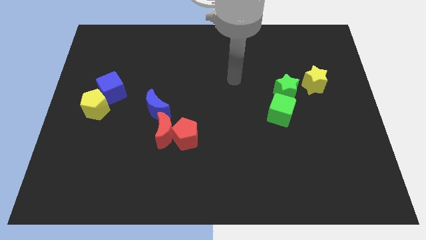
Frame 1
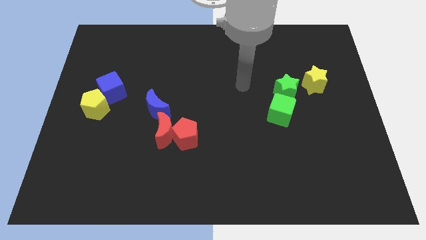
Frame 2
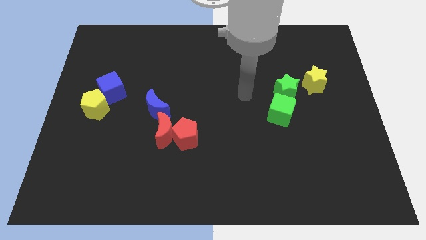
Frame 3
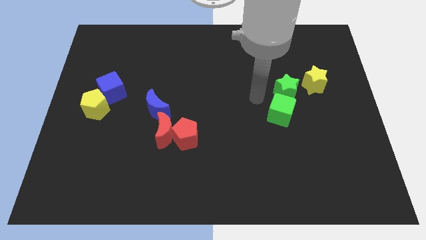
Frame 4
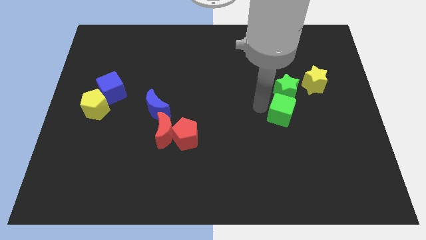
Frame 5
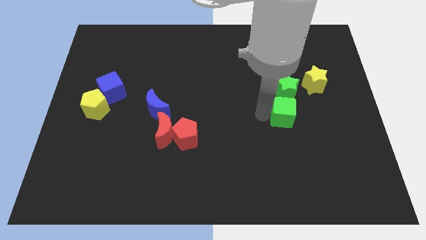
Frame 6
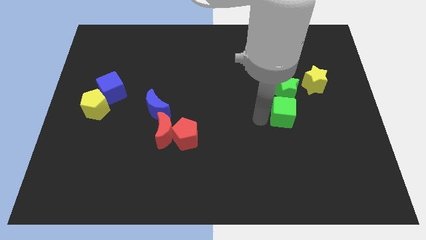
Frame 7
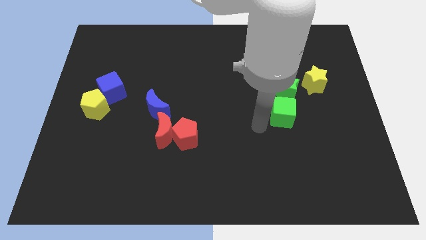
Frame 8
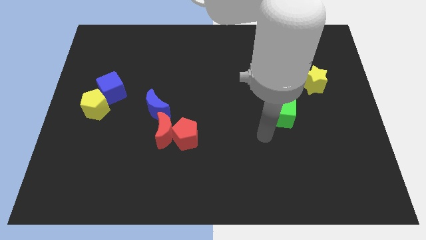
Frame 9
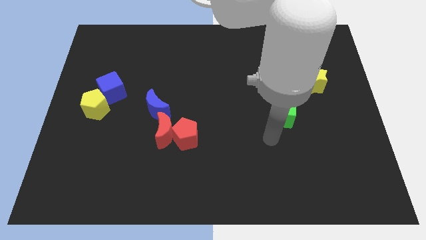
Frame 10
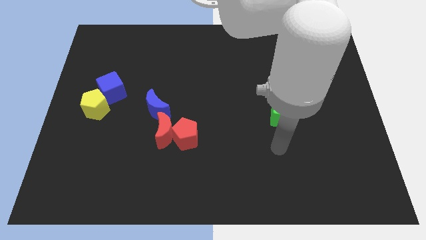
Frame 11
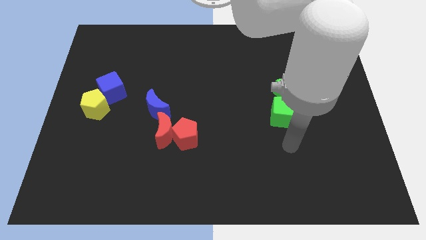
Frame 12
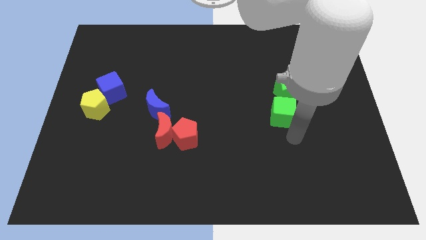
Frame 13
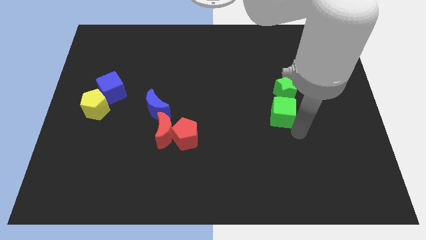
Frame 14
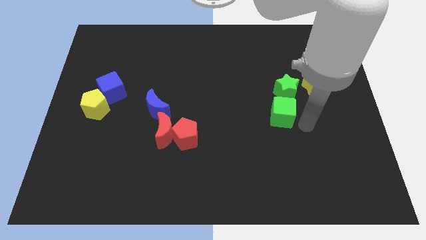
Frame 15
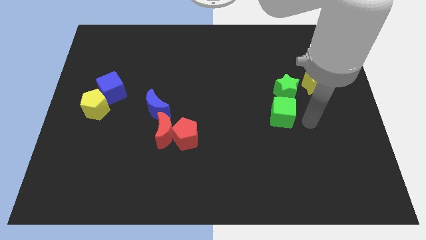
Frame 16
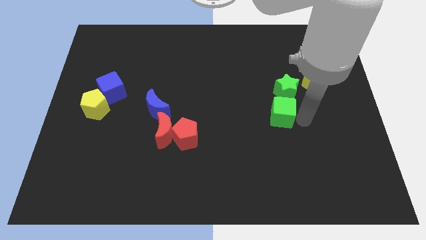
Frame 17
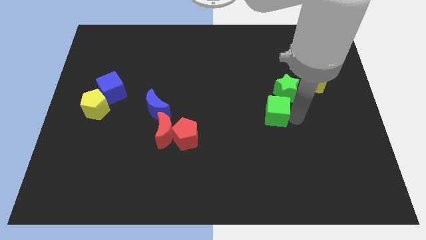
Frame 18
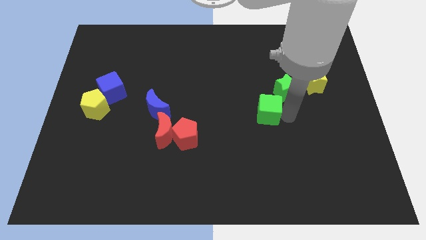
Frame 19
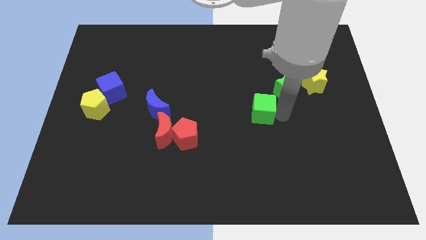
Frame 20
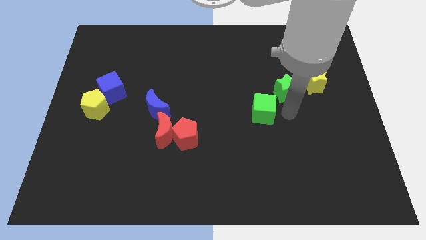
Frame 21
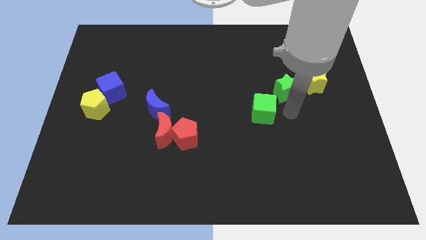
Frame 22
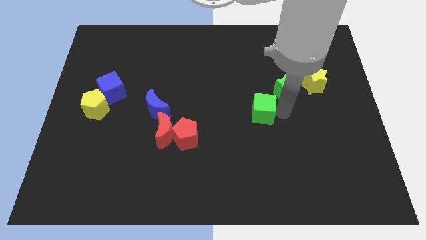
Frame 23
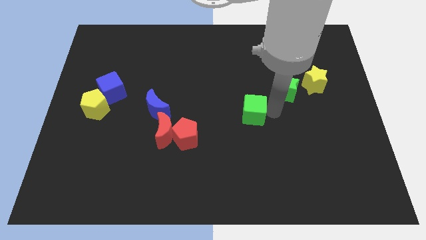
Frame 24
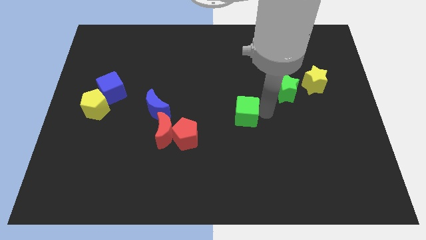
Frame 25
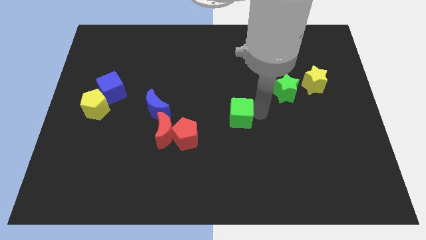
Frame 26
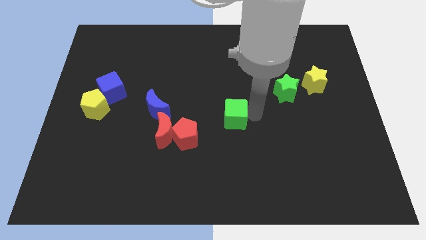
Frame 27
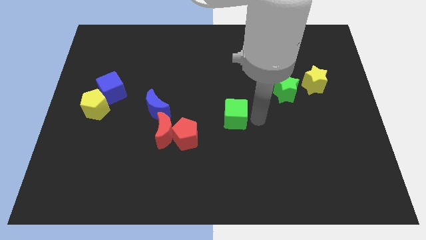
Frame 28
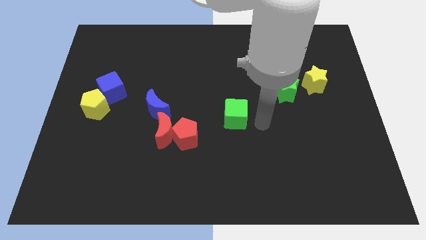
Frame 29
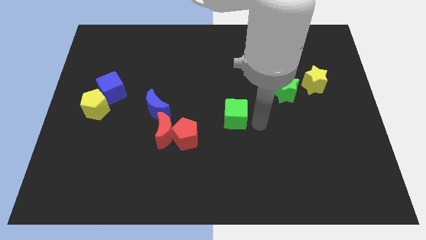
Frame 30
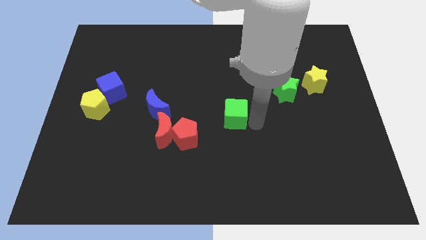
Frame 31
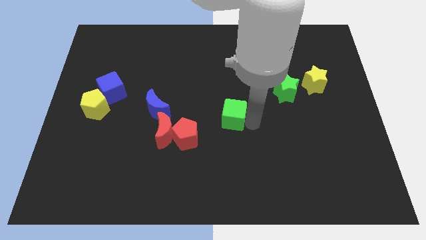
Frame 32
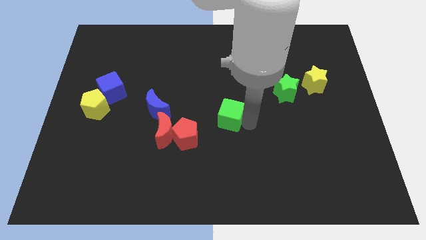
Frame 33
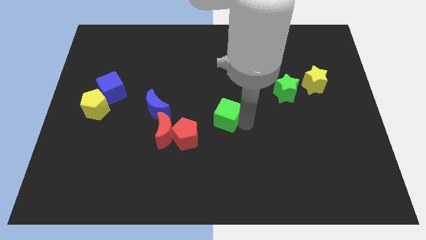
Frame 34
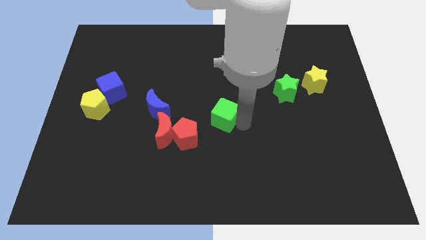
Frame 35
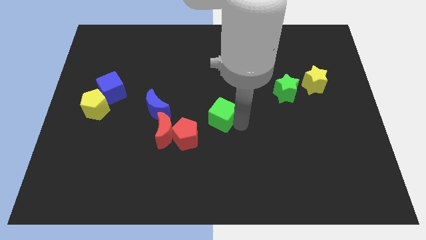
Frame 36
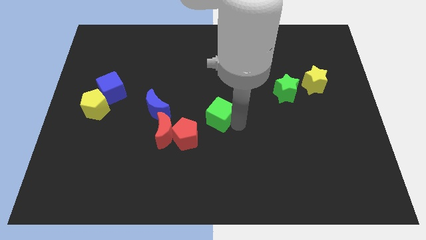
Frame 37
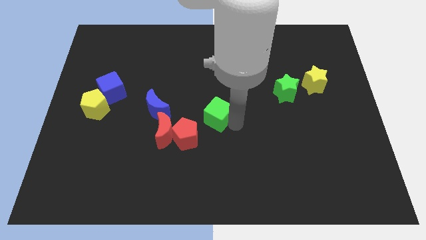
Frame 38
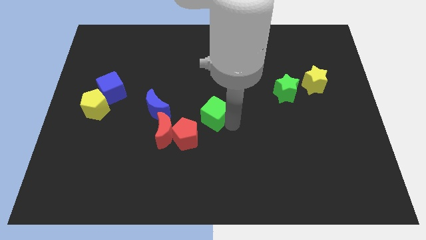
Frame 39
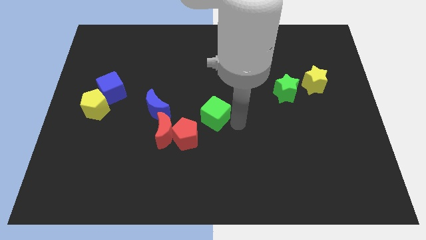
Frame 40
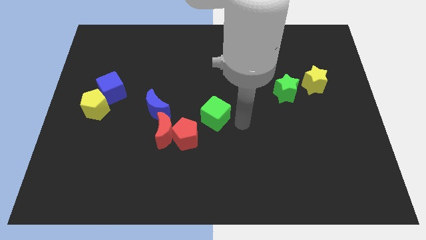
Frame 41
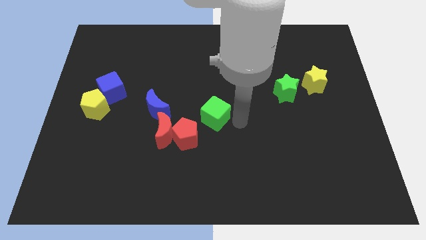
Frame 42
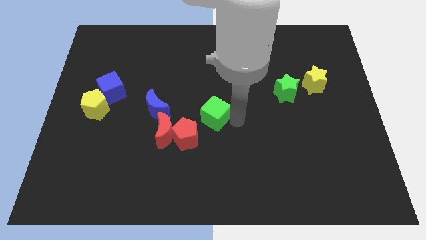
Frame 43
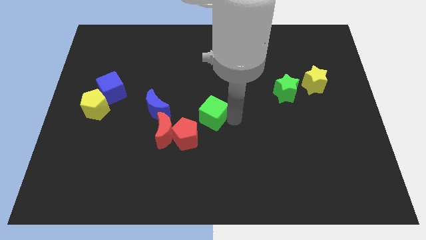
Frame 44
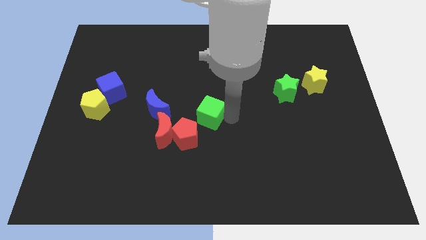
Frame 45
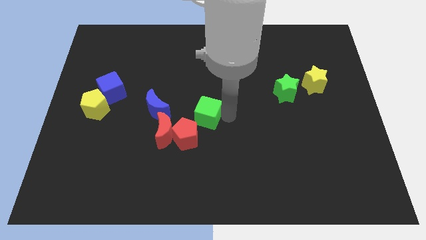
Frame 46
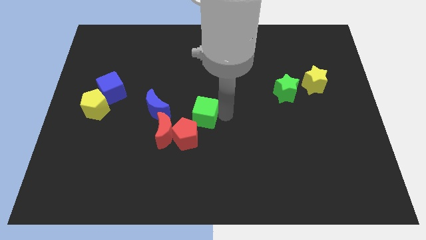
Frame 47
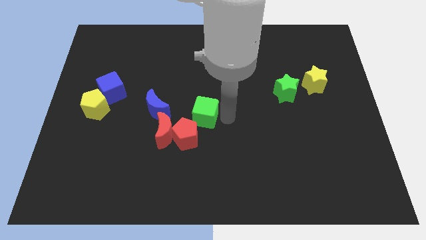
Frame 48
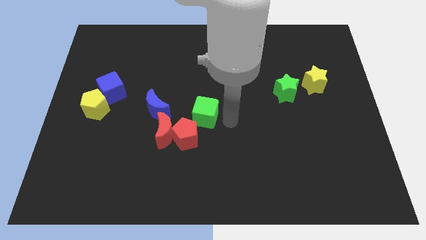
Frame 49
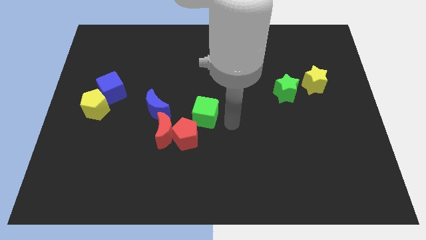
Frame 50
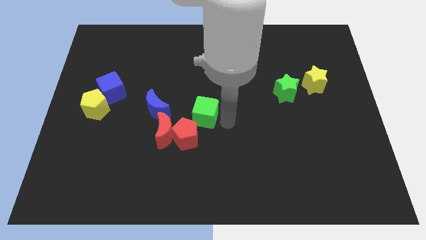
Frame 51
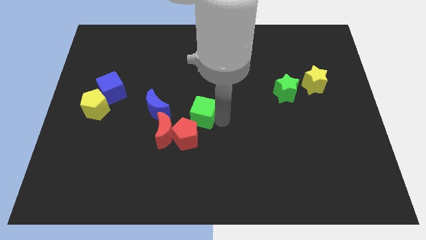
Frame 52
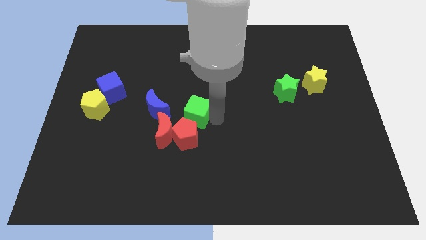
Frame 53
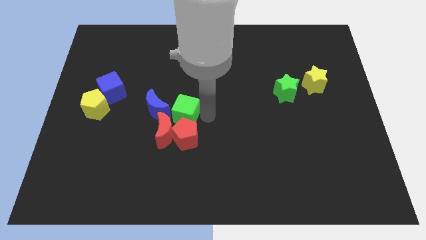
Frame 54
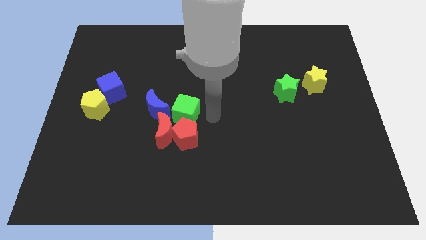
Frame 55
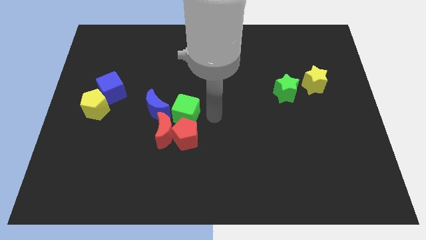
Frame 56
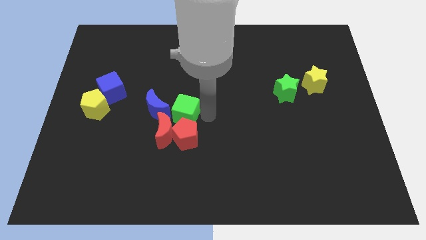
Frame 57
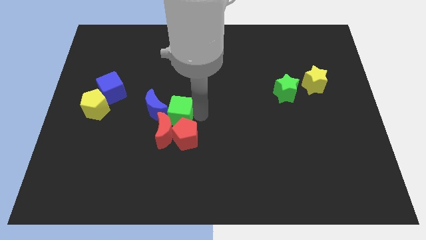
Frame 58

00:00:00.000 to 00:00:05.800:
move the green cube next to the blue moon

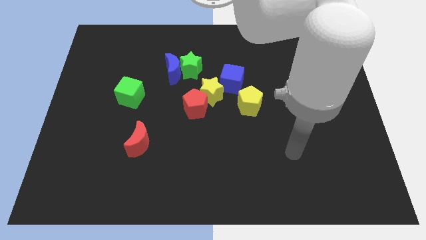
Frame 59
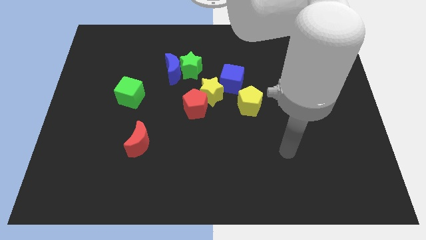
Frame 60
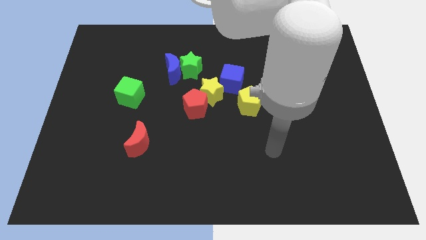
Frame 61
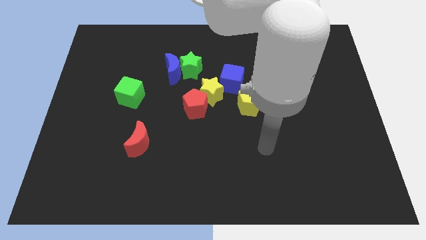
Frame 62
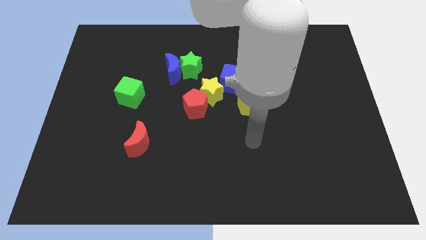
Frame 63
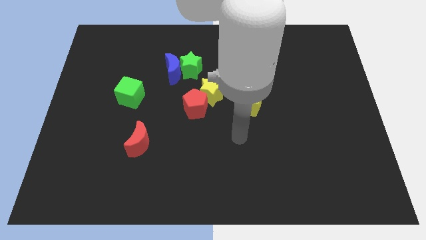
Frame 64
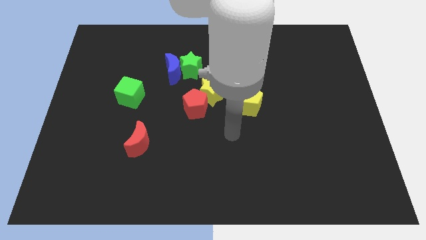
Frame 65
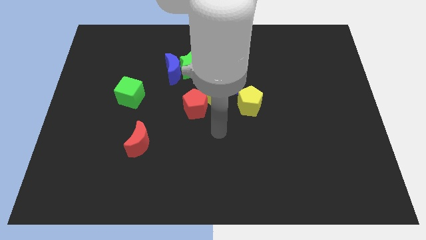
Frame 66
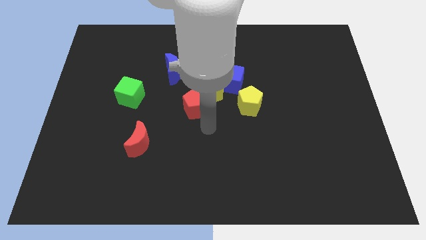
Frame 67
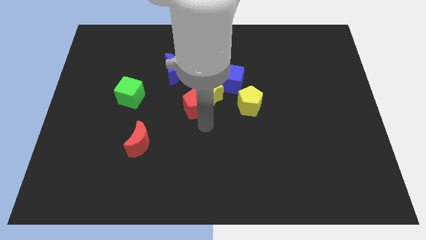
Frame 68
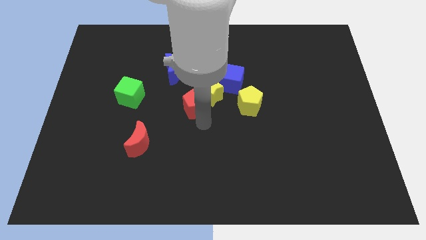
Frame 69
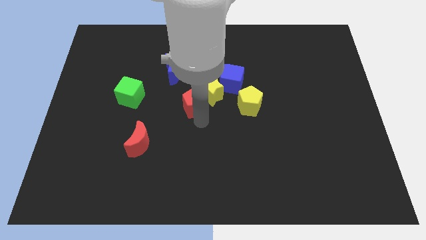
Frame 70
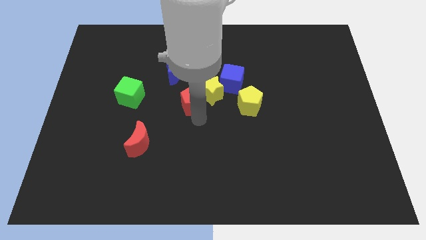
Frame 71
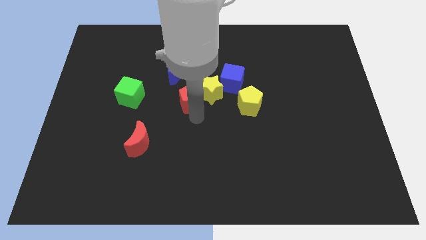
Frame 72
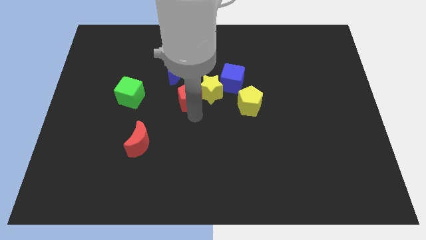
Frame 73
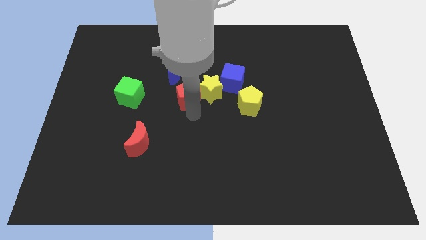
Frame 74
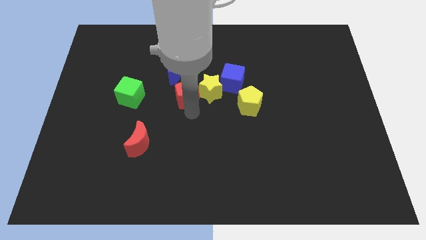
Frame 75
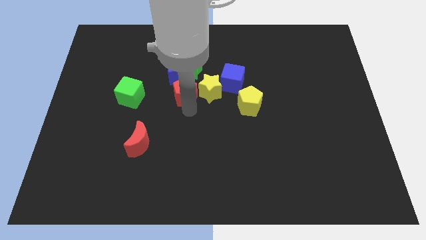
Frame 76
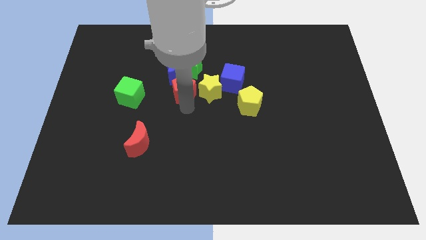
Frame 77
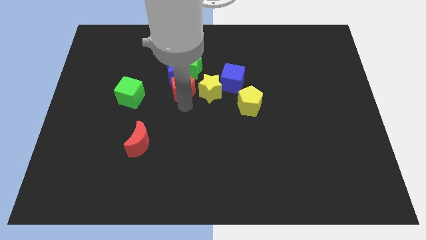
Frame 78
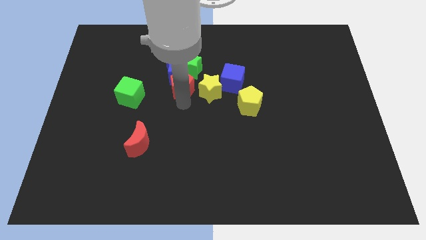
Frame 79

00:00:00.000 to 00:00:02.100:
slide the red pentagon towards the blue moon
